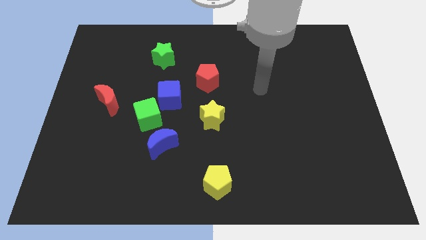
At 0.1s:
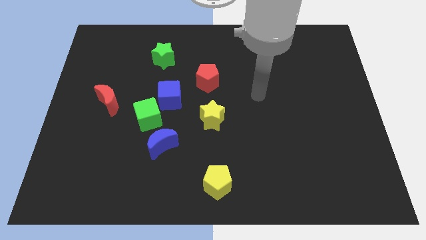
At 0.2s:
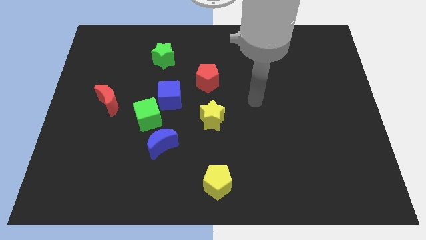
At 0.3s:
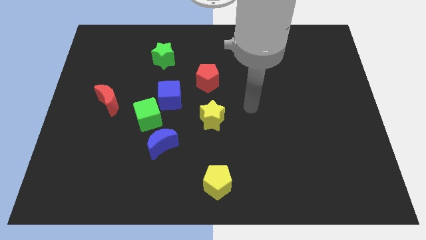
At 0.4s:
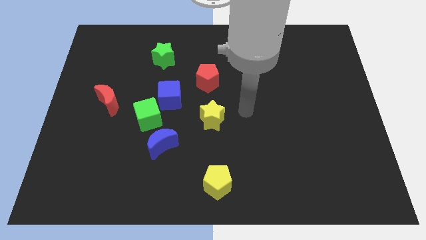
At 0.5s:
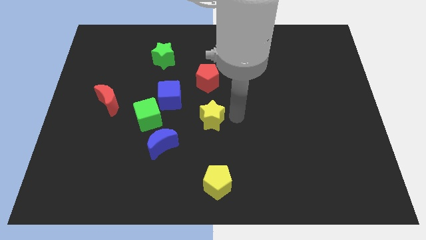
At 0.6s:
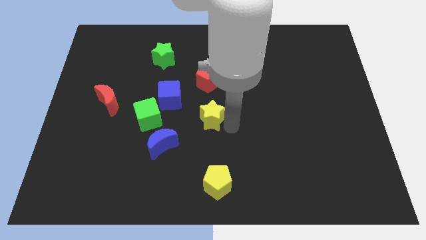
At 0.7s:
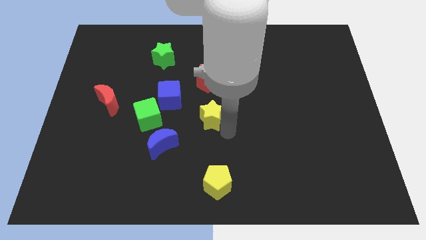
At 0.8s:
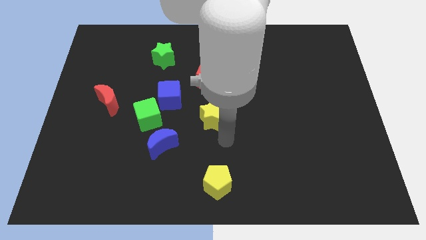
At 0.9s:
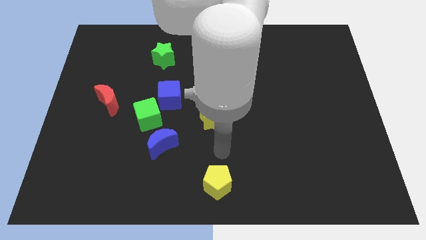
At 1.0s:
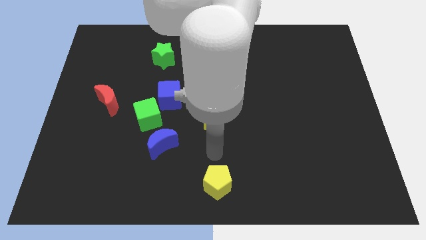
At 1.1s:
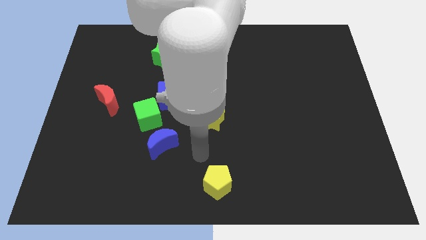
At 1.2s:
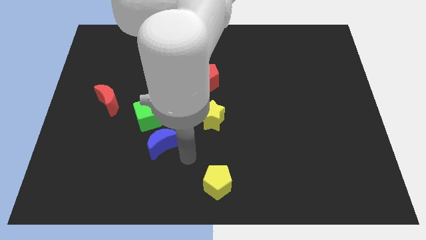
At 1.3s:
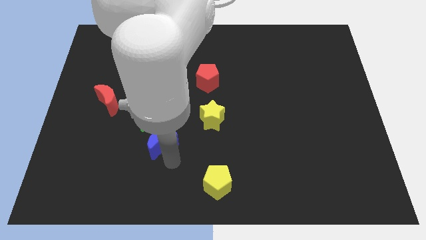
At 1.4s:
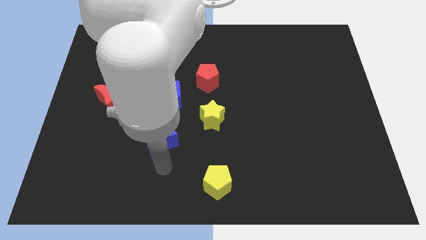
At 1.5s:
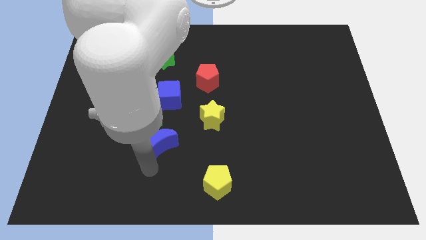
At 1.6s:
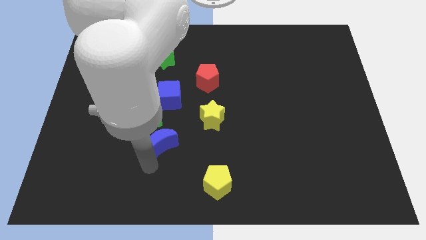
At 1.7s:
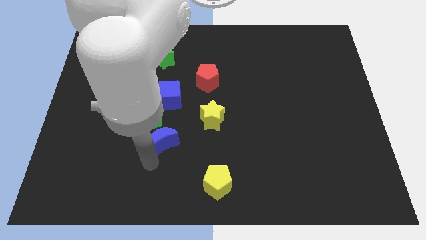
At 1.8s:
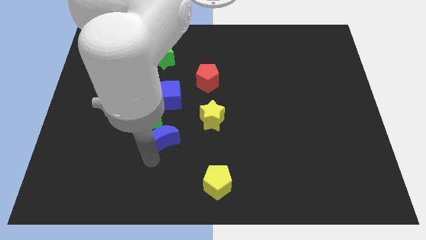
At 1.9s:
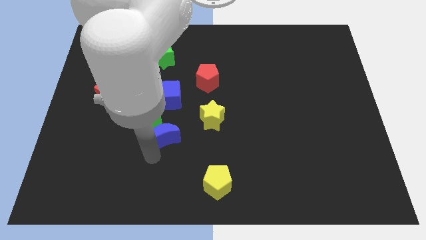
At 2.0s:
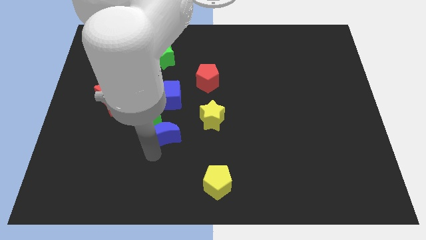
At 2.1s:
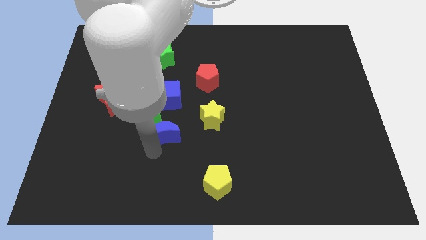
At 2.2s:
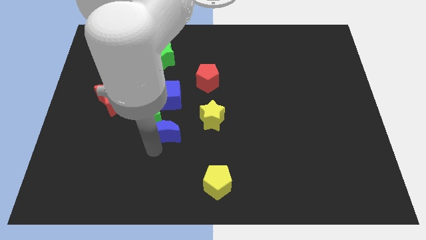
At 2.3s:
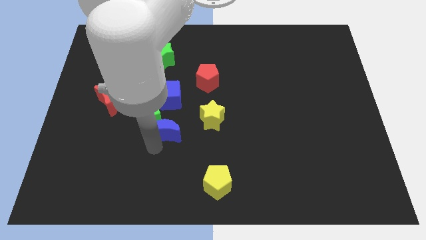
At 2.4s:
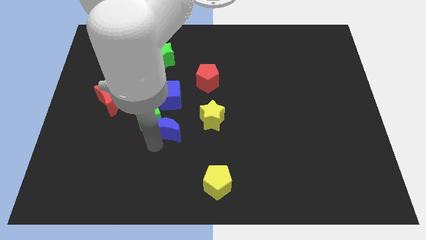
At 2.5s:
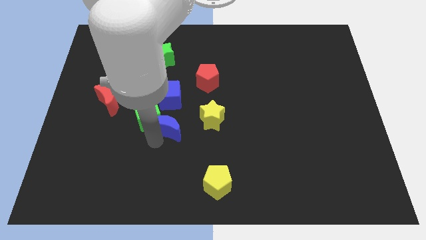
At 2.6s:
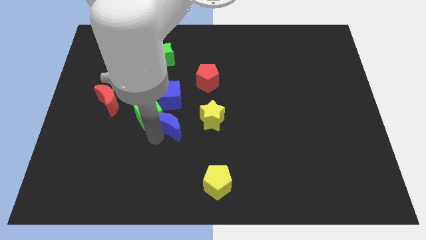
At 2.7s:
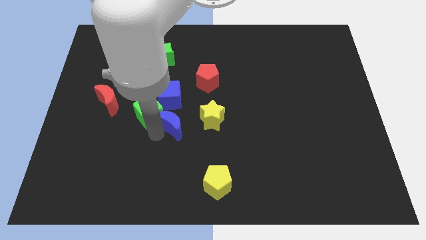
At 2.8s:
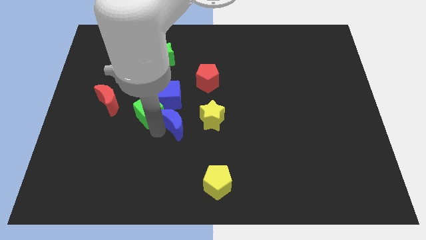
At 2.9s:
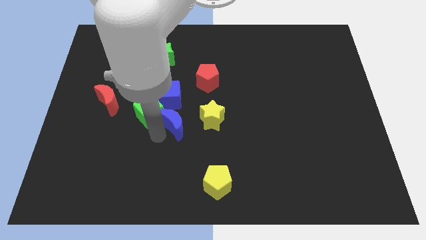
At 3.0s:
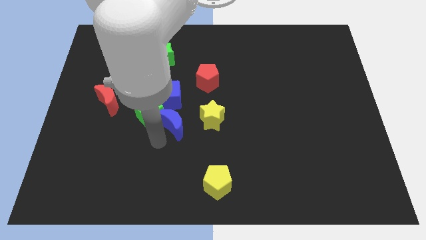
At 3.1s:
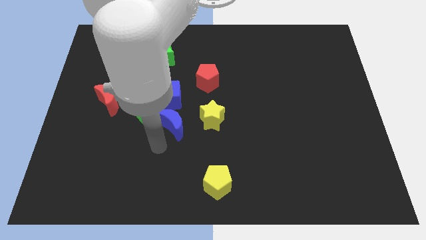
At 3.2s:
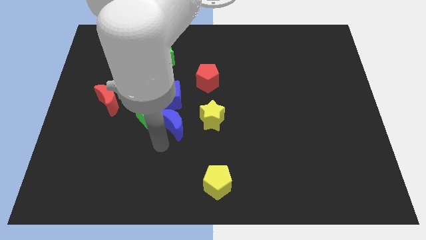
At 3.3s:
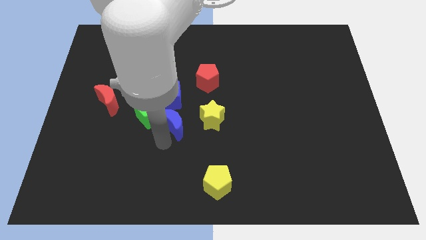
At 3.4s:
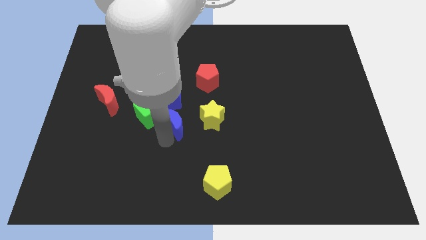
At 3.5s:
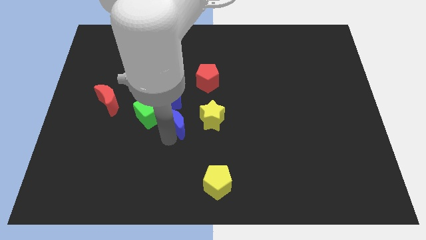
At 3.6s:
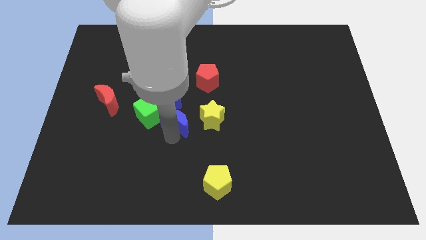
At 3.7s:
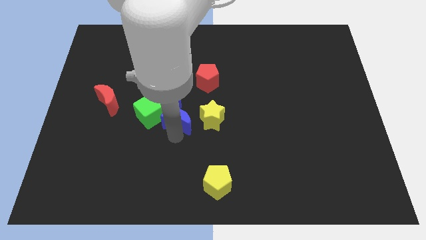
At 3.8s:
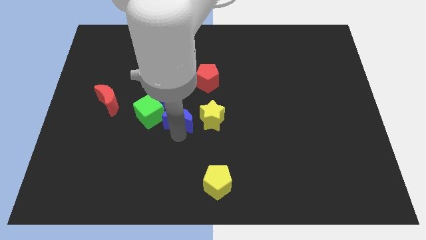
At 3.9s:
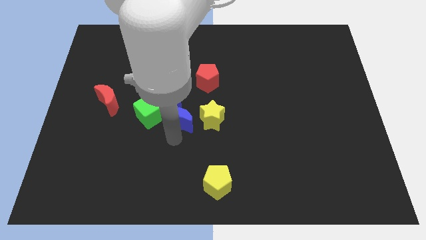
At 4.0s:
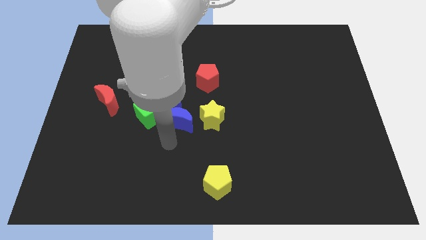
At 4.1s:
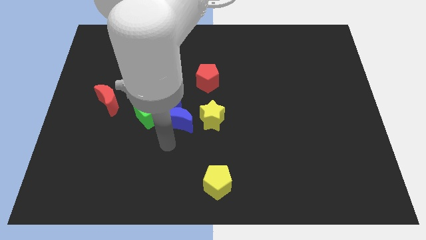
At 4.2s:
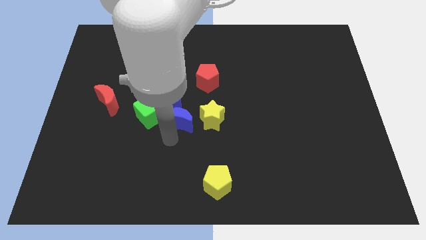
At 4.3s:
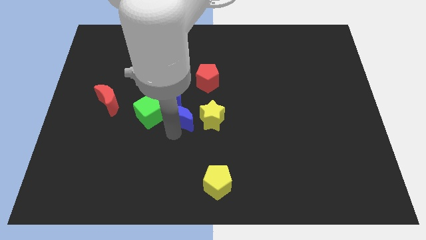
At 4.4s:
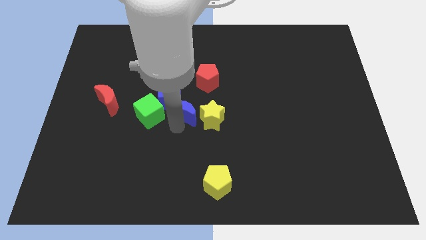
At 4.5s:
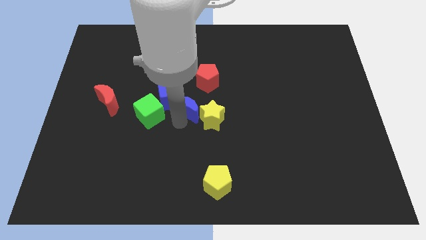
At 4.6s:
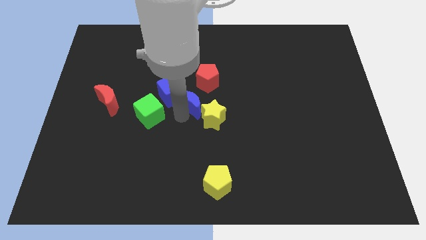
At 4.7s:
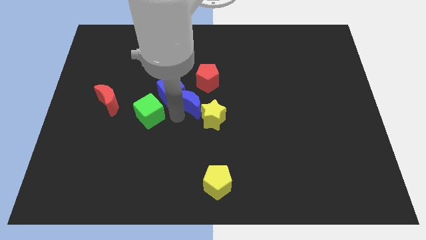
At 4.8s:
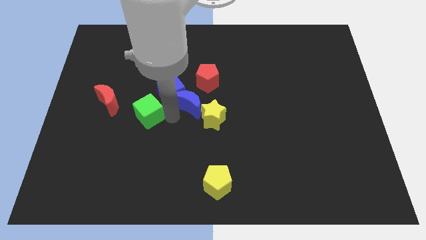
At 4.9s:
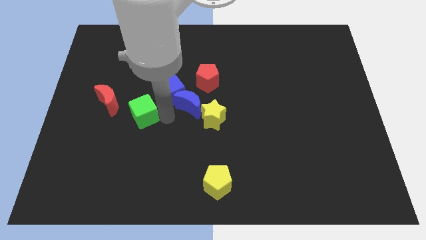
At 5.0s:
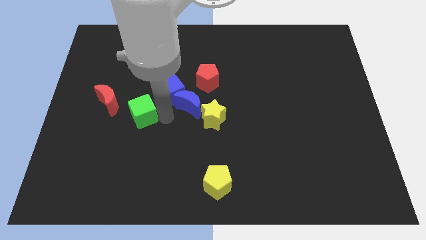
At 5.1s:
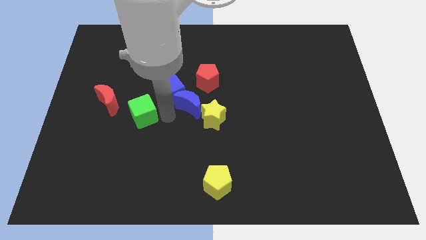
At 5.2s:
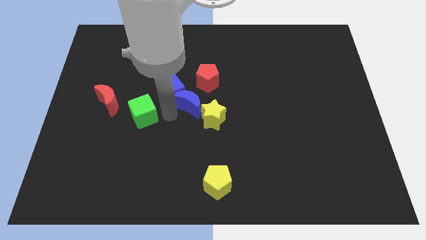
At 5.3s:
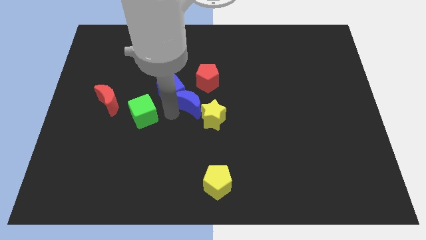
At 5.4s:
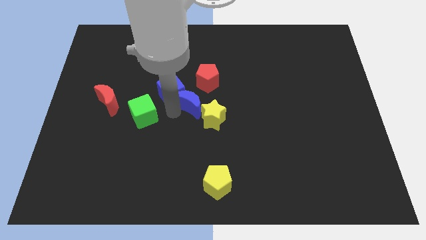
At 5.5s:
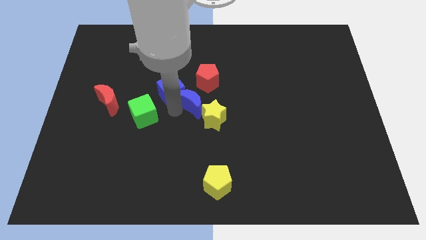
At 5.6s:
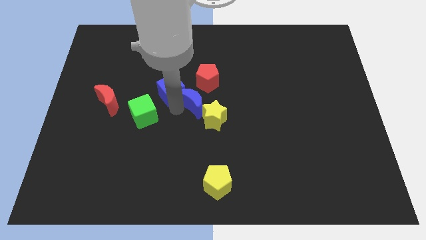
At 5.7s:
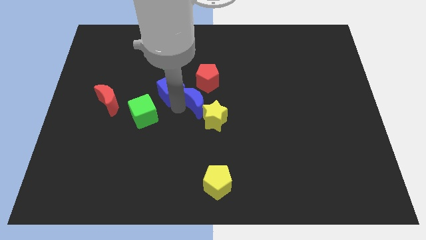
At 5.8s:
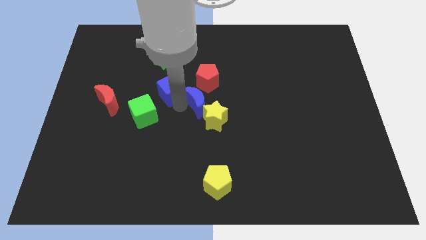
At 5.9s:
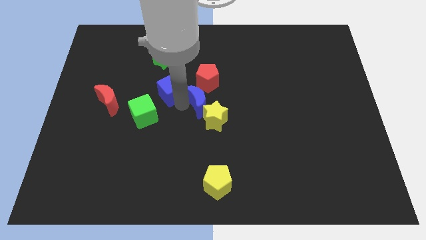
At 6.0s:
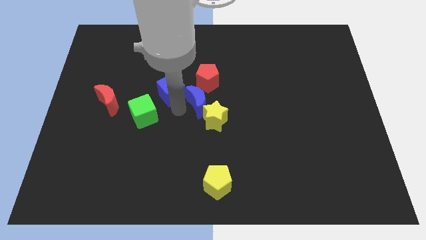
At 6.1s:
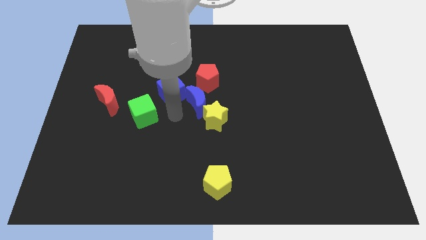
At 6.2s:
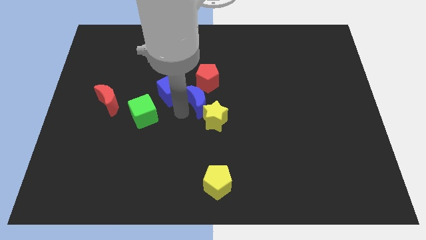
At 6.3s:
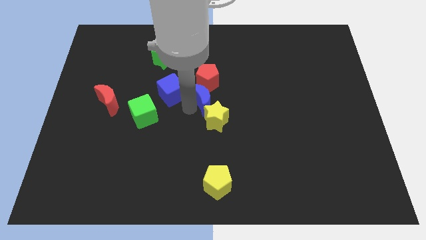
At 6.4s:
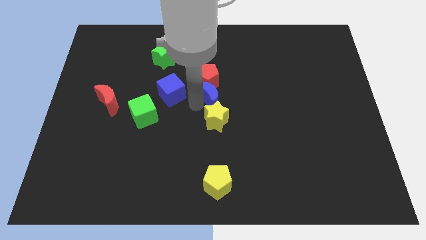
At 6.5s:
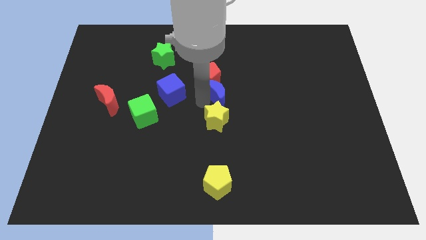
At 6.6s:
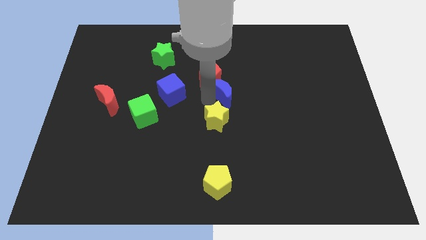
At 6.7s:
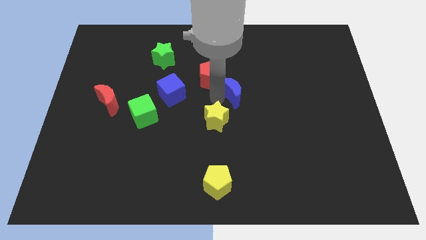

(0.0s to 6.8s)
move the blue moon upwards and right

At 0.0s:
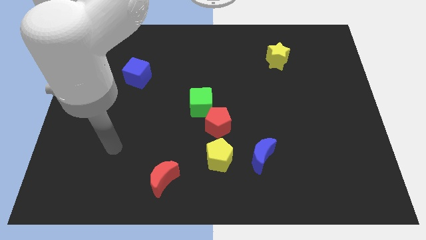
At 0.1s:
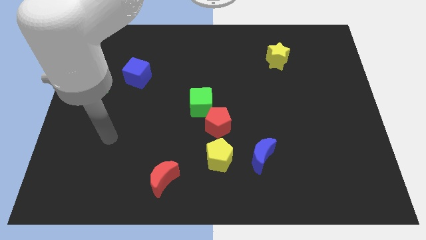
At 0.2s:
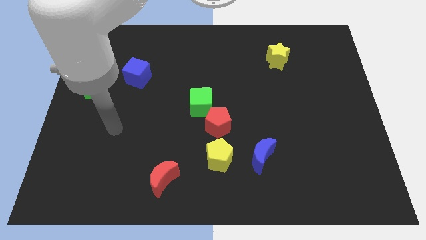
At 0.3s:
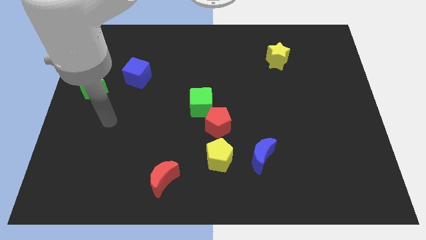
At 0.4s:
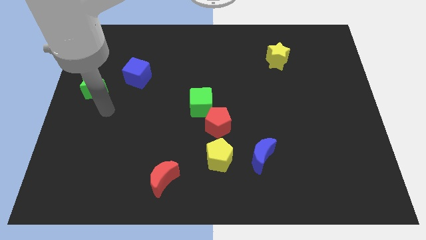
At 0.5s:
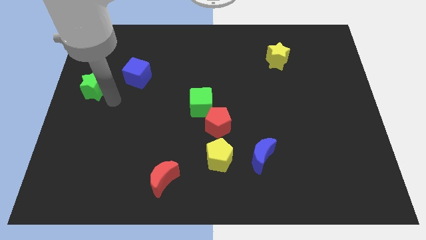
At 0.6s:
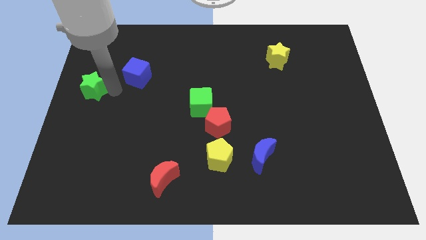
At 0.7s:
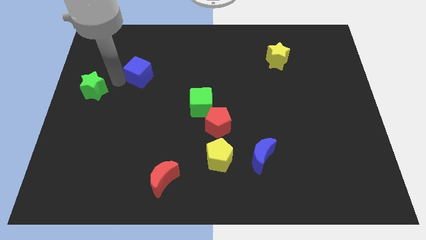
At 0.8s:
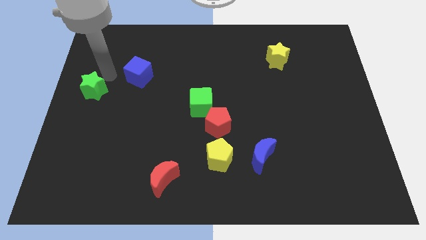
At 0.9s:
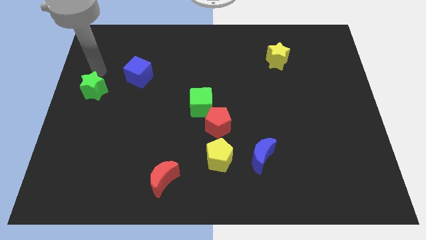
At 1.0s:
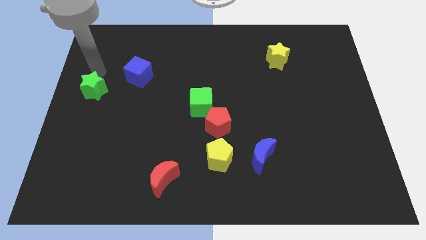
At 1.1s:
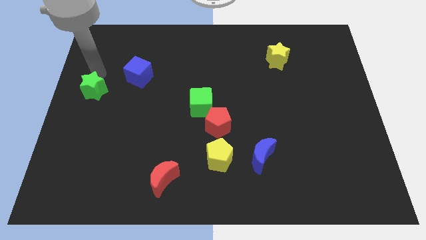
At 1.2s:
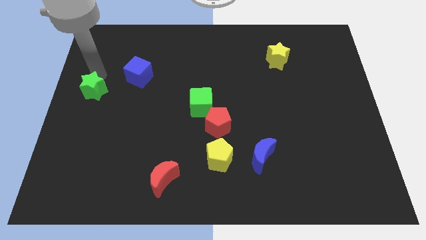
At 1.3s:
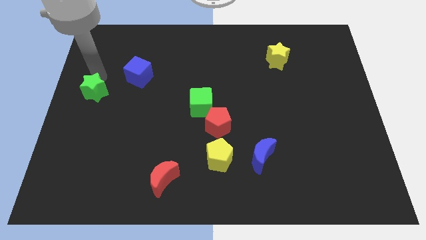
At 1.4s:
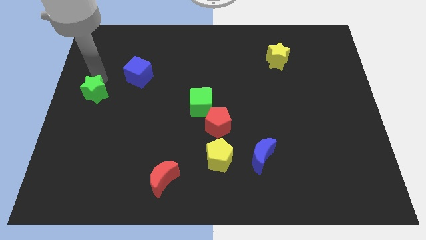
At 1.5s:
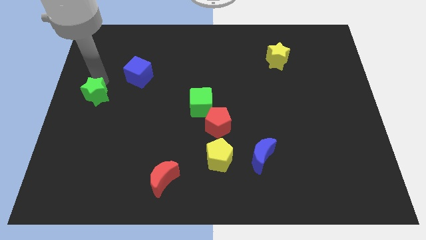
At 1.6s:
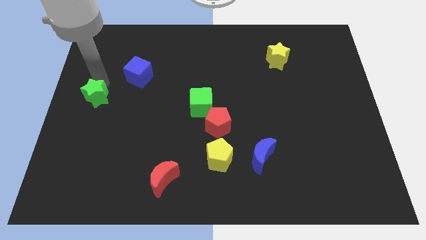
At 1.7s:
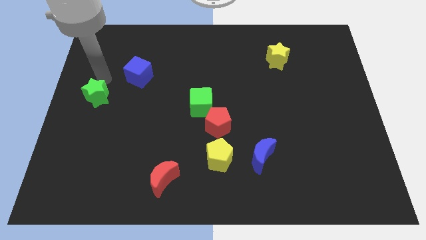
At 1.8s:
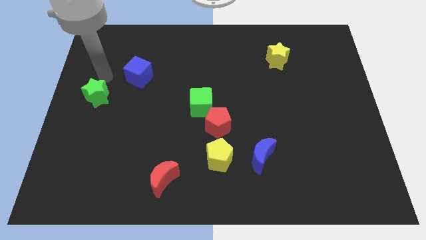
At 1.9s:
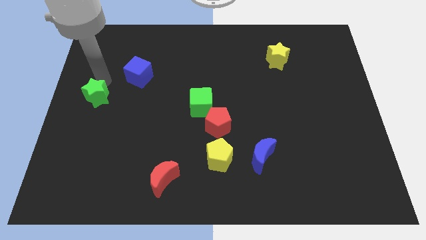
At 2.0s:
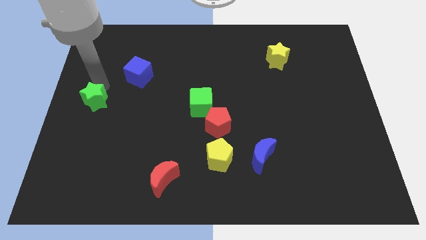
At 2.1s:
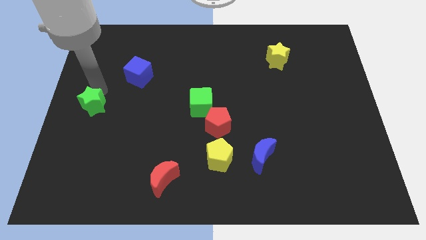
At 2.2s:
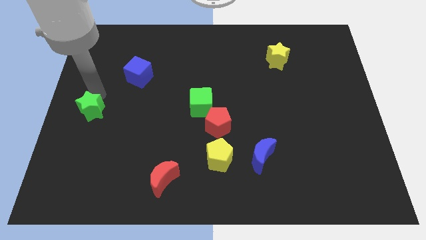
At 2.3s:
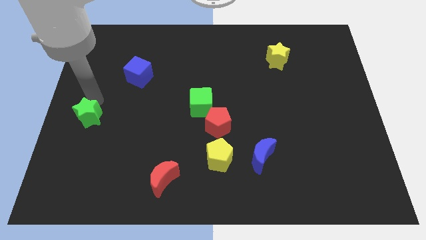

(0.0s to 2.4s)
move the green star downwards somewhat
